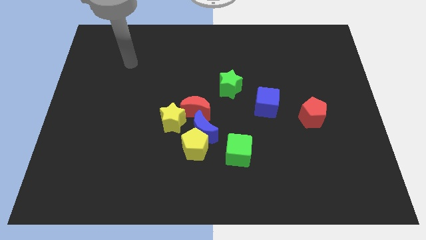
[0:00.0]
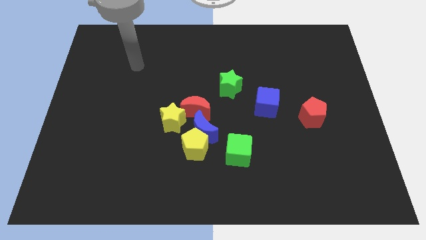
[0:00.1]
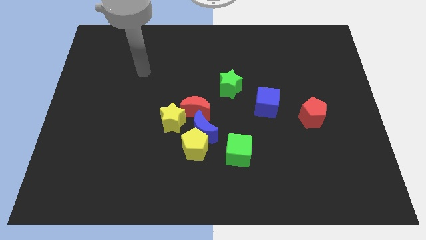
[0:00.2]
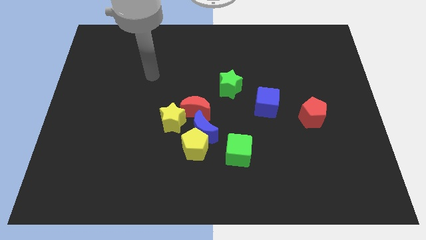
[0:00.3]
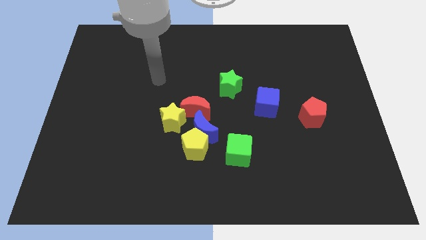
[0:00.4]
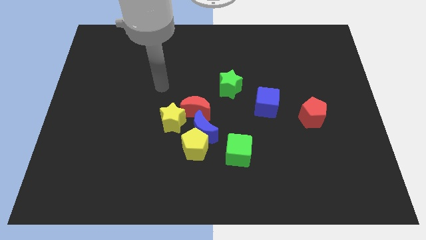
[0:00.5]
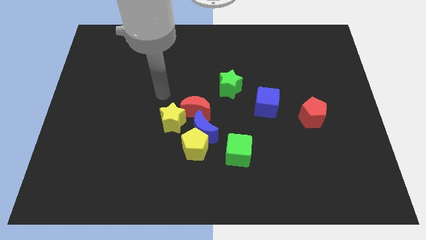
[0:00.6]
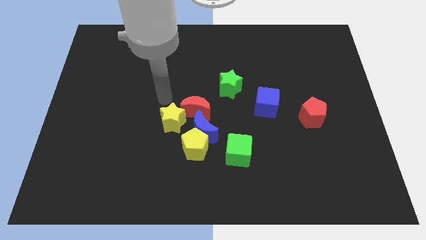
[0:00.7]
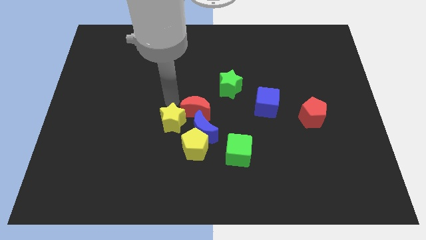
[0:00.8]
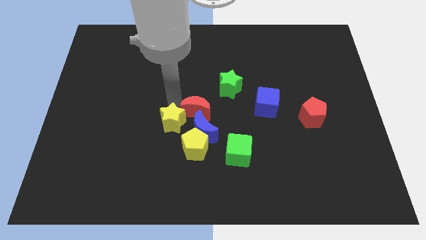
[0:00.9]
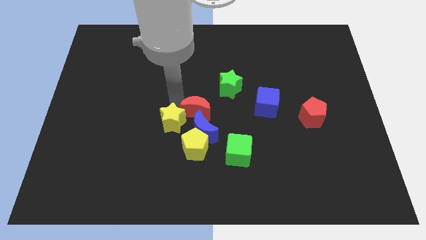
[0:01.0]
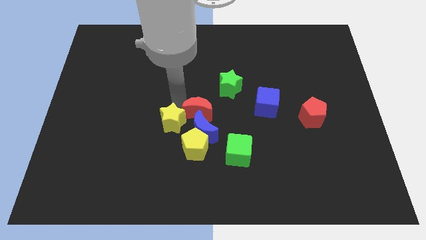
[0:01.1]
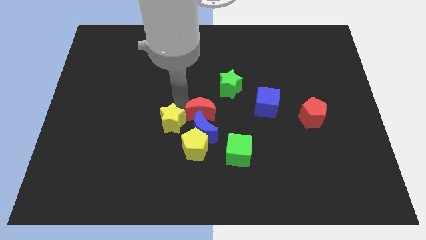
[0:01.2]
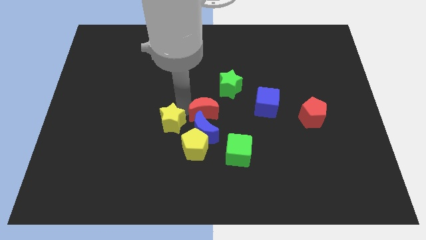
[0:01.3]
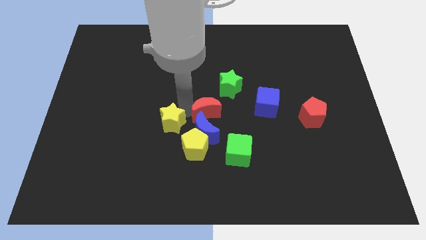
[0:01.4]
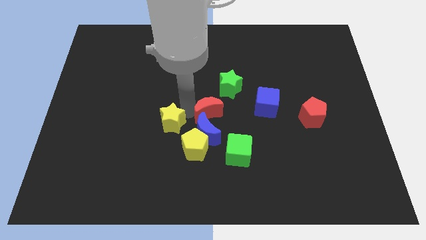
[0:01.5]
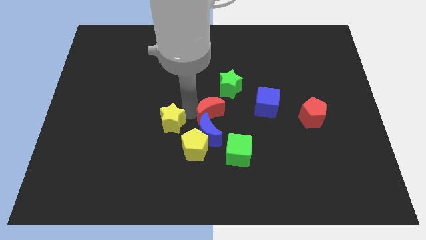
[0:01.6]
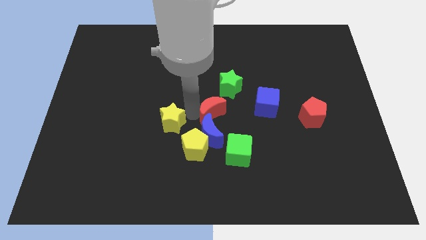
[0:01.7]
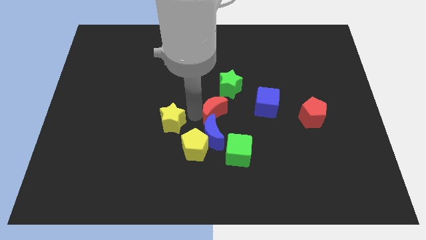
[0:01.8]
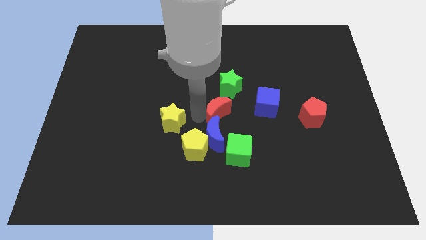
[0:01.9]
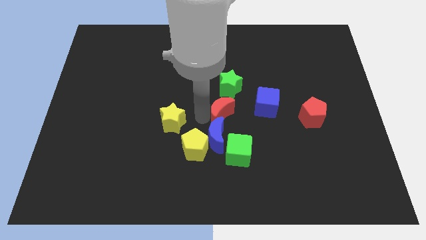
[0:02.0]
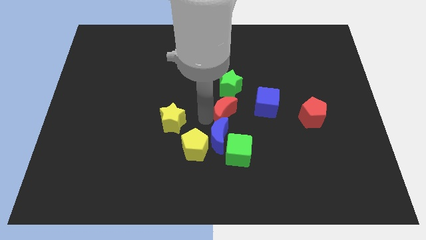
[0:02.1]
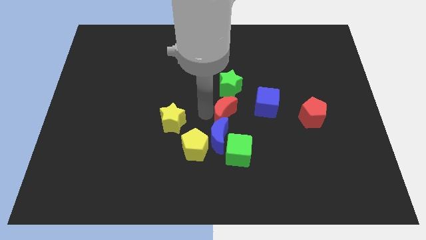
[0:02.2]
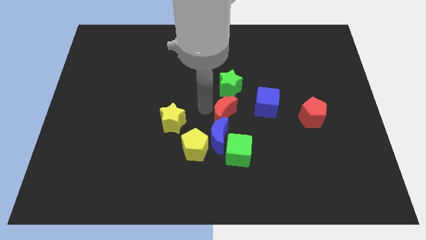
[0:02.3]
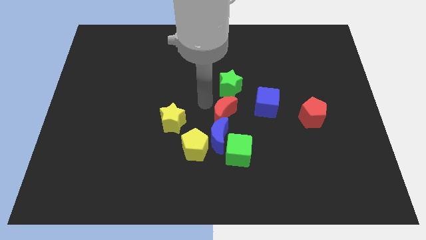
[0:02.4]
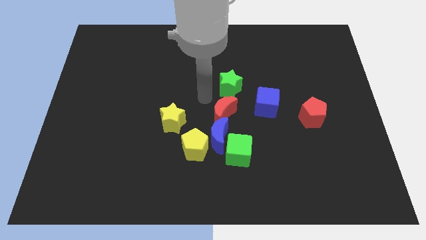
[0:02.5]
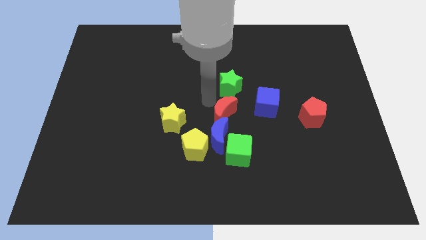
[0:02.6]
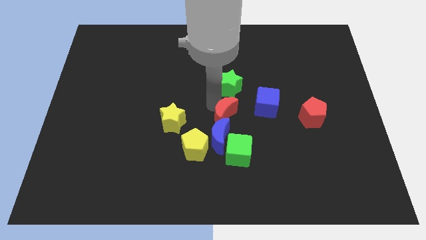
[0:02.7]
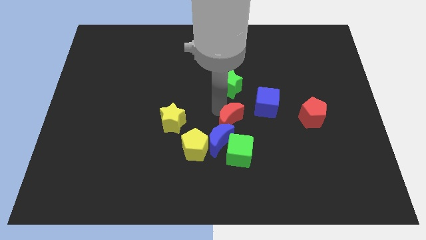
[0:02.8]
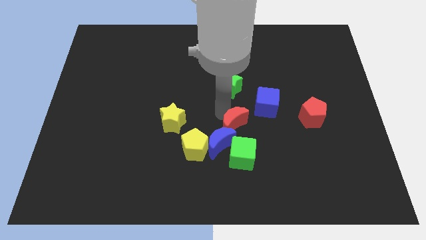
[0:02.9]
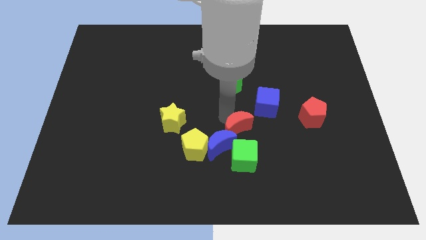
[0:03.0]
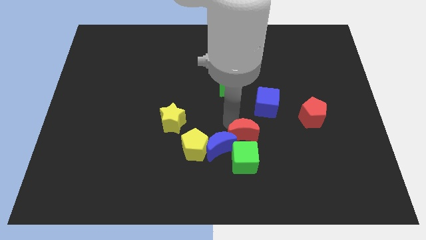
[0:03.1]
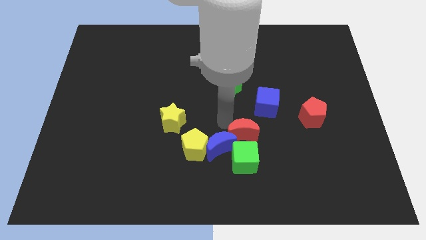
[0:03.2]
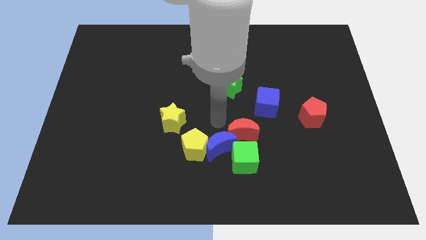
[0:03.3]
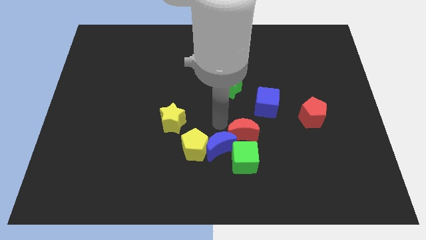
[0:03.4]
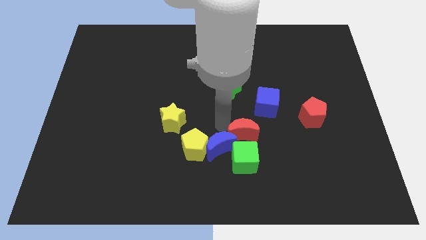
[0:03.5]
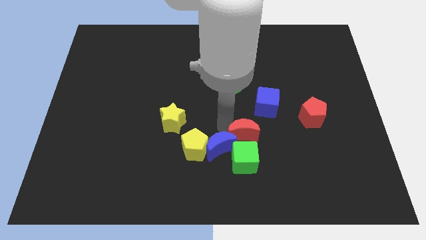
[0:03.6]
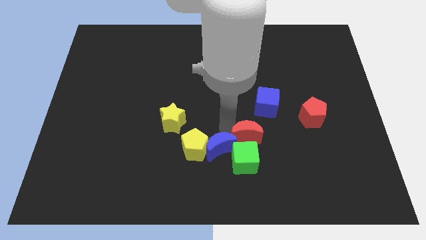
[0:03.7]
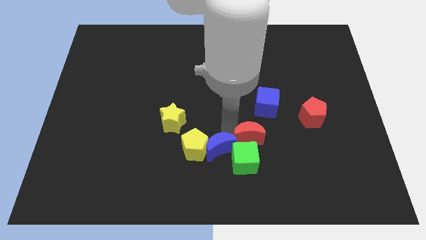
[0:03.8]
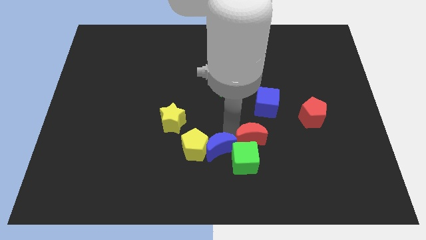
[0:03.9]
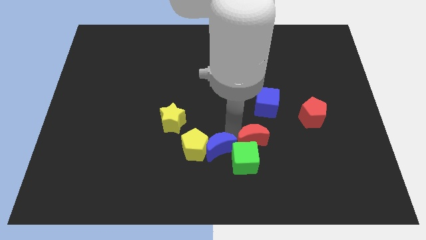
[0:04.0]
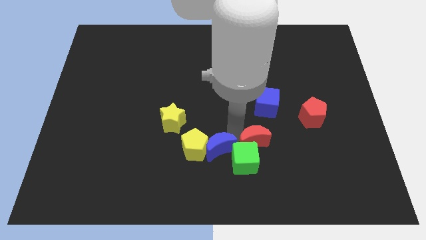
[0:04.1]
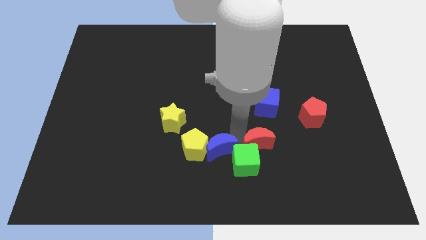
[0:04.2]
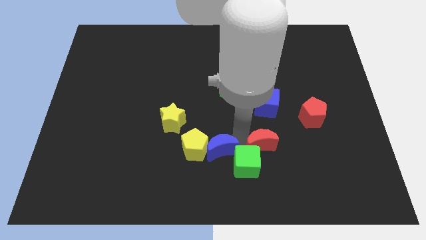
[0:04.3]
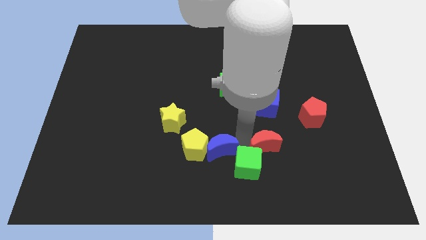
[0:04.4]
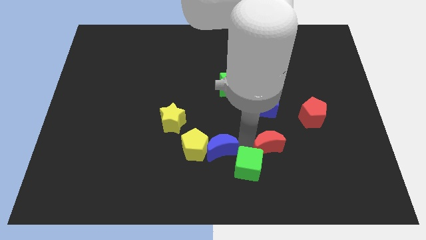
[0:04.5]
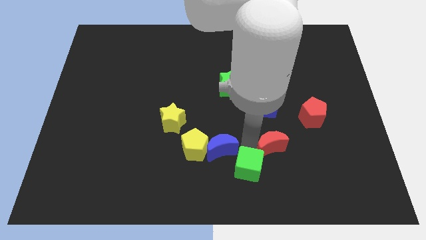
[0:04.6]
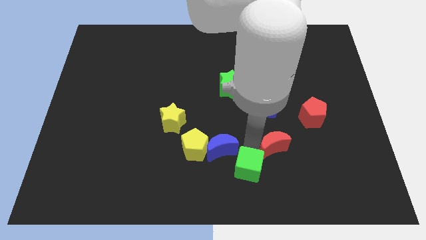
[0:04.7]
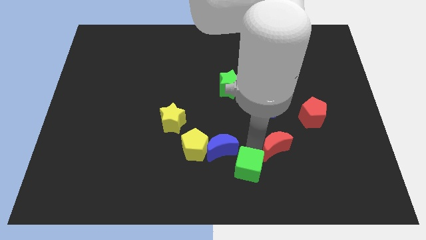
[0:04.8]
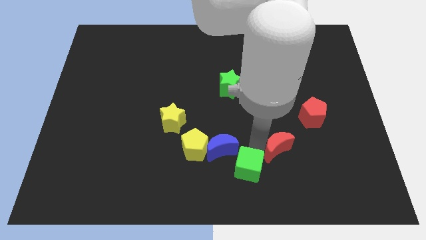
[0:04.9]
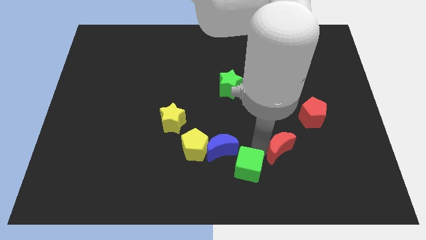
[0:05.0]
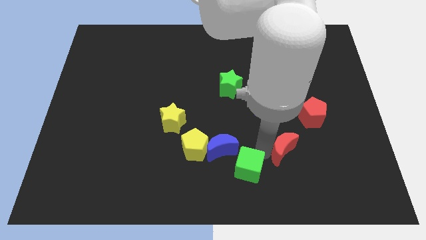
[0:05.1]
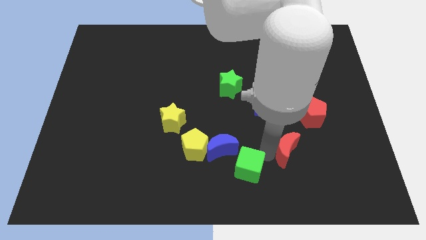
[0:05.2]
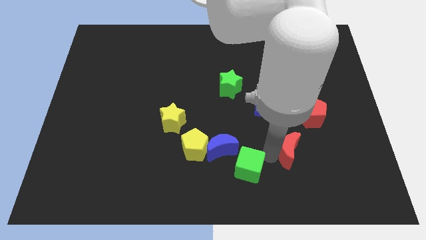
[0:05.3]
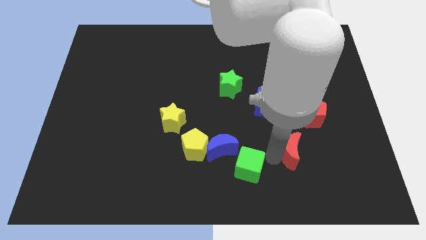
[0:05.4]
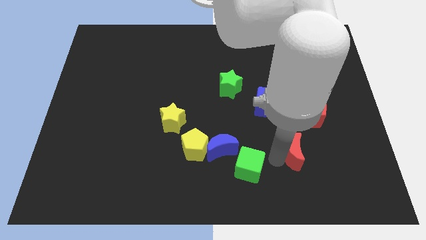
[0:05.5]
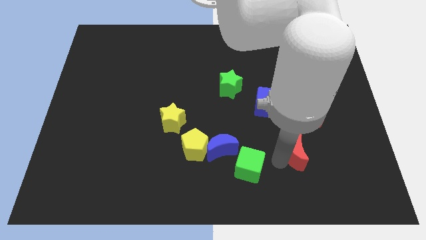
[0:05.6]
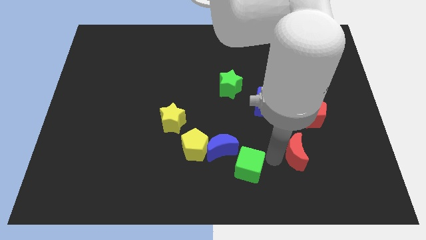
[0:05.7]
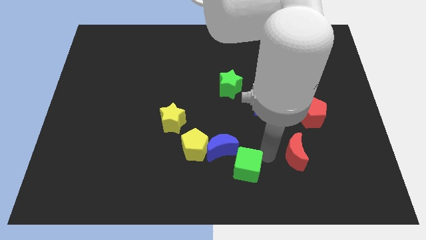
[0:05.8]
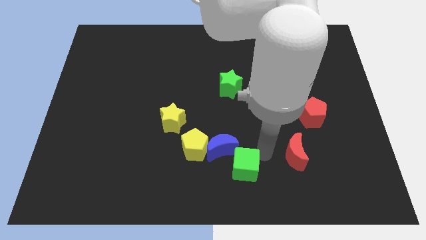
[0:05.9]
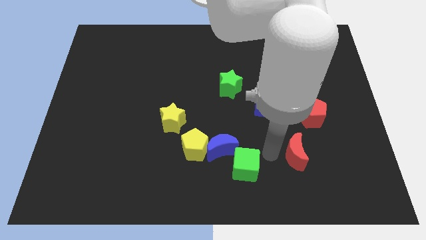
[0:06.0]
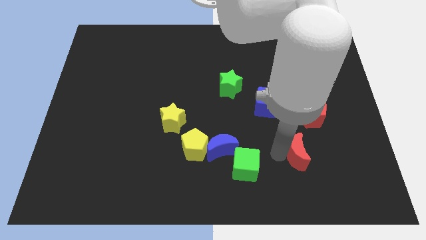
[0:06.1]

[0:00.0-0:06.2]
slide the red moon to the bottom side of the red pentagon

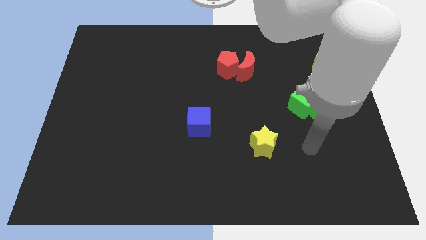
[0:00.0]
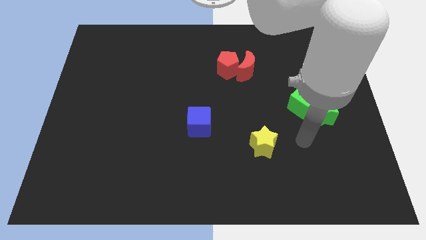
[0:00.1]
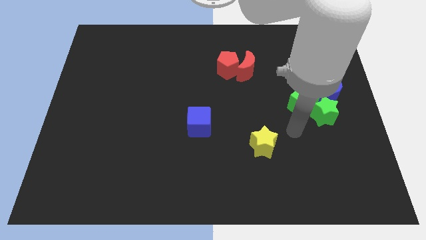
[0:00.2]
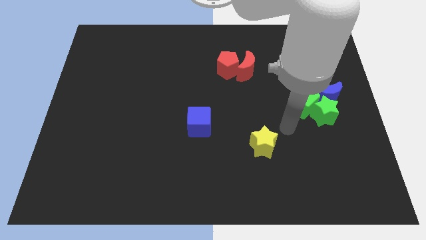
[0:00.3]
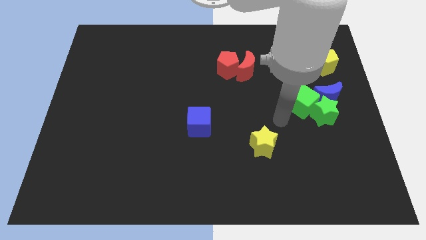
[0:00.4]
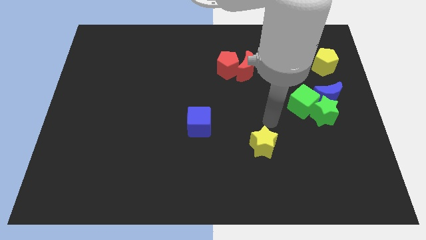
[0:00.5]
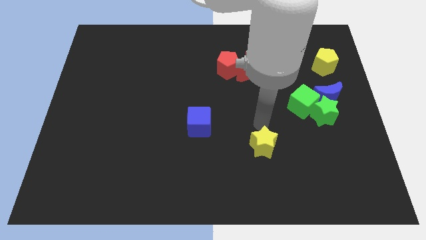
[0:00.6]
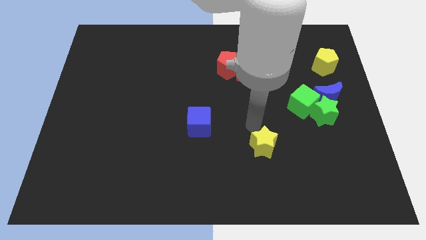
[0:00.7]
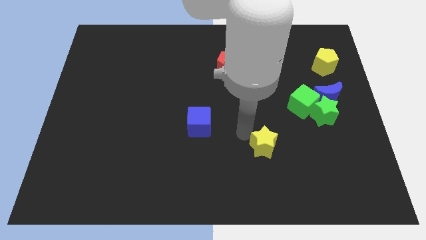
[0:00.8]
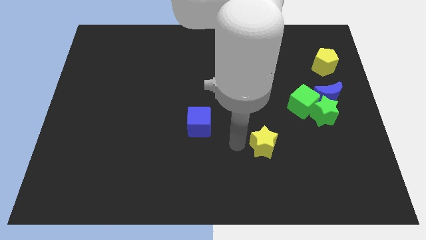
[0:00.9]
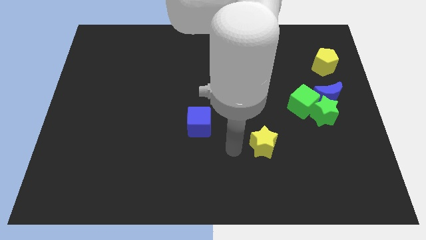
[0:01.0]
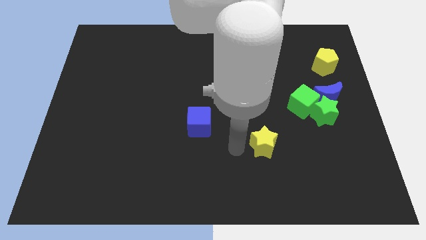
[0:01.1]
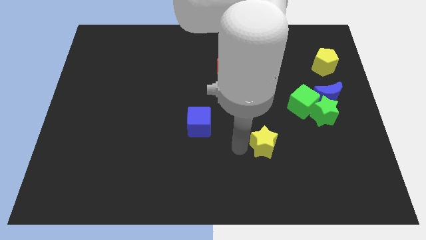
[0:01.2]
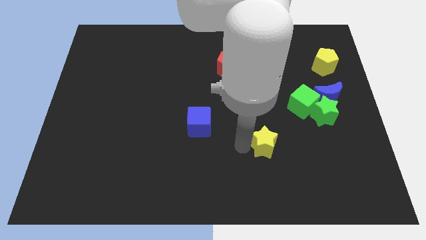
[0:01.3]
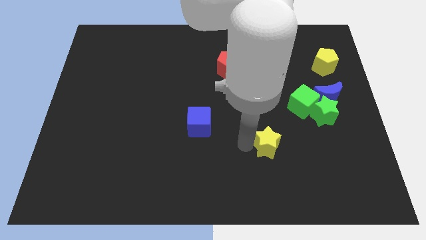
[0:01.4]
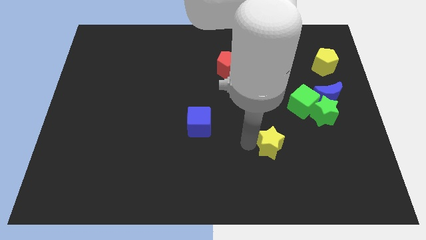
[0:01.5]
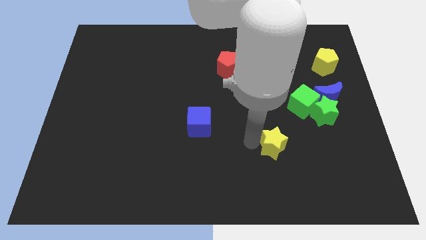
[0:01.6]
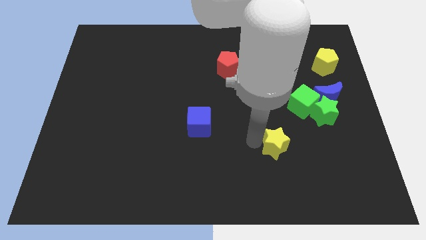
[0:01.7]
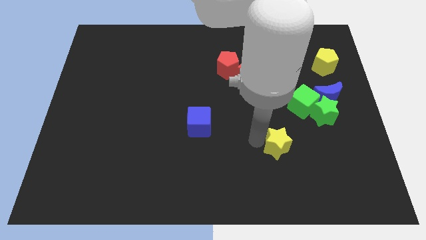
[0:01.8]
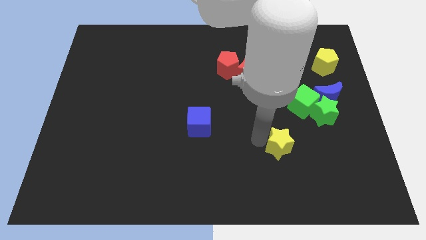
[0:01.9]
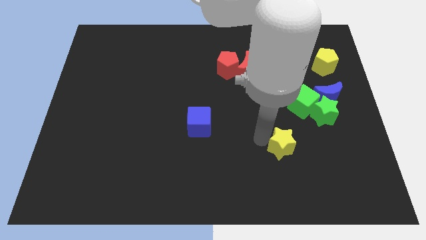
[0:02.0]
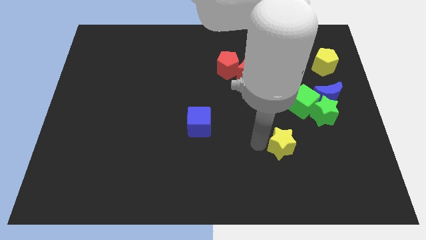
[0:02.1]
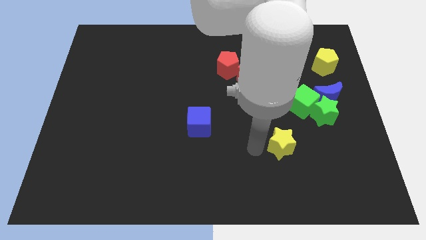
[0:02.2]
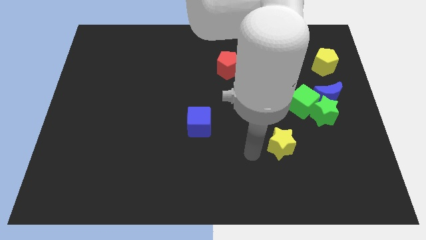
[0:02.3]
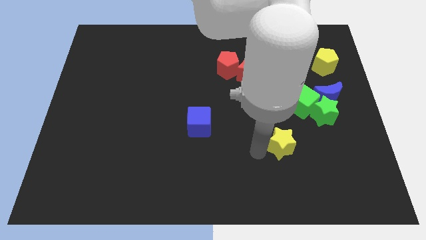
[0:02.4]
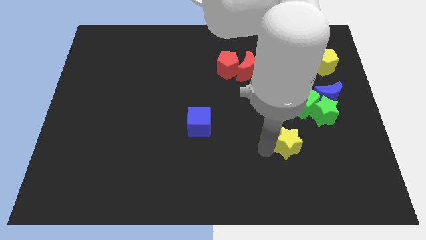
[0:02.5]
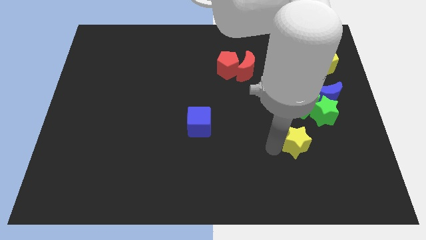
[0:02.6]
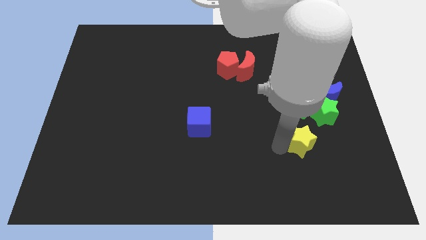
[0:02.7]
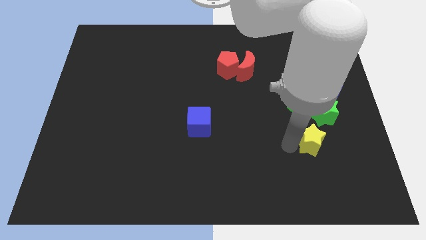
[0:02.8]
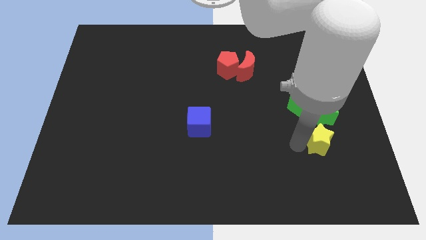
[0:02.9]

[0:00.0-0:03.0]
slide the yellow star to the bottom side of the blue moon
